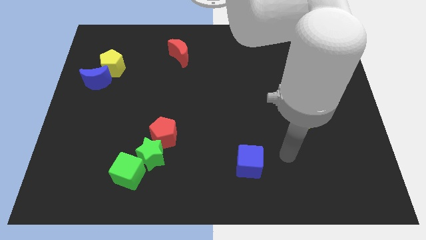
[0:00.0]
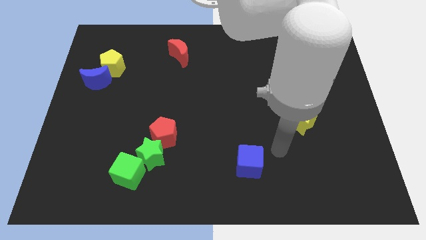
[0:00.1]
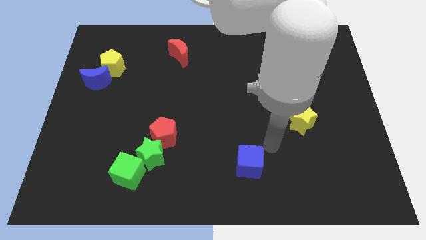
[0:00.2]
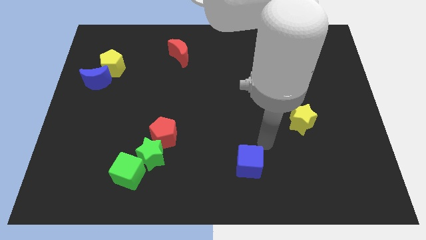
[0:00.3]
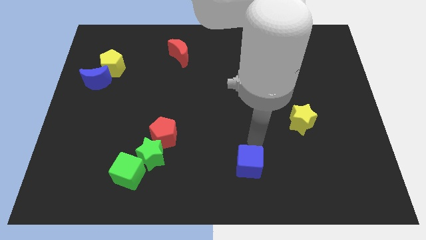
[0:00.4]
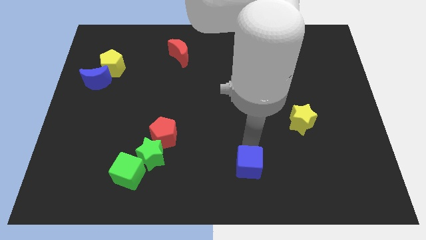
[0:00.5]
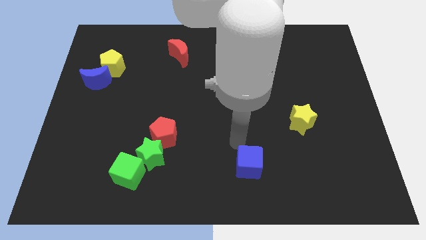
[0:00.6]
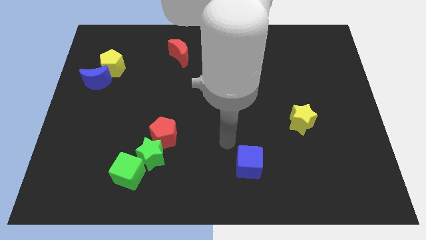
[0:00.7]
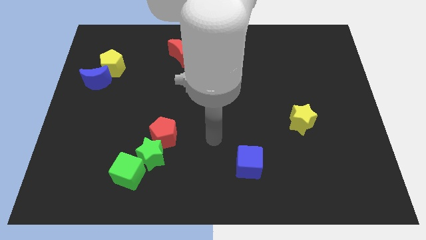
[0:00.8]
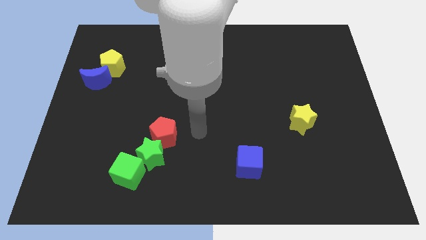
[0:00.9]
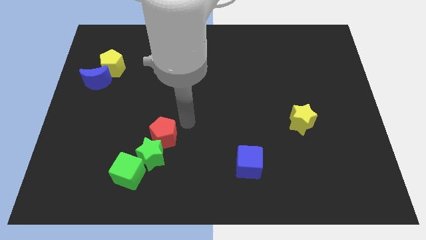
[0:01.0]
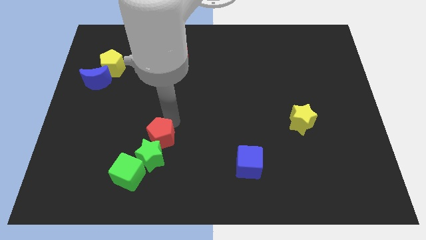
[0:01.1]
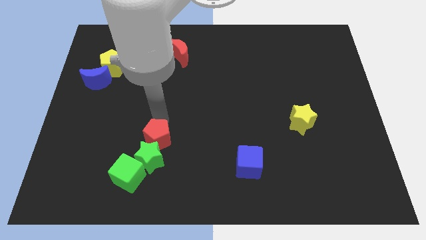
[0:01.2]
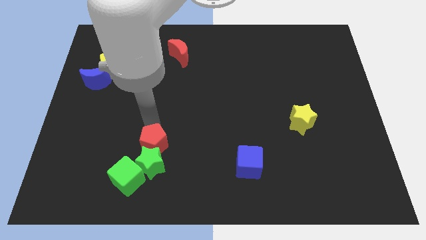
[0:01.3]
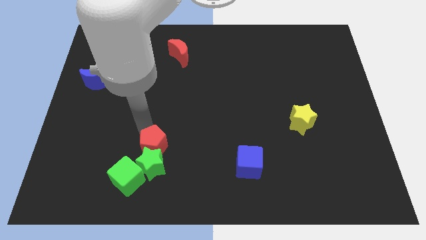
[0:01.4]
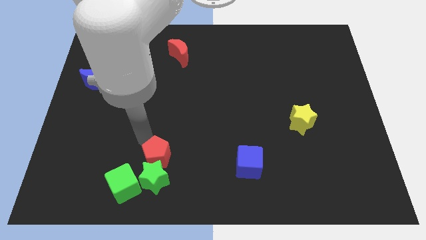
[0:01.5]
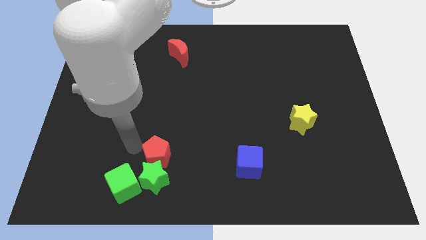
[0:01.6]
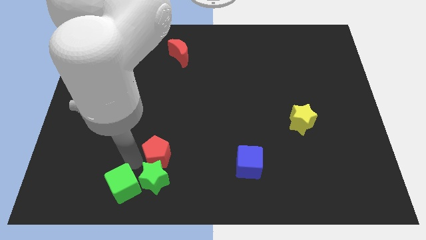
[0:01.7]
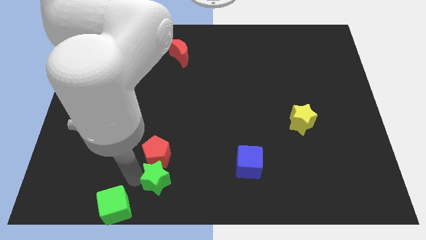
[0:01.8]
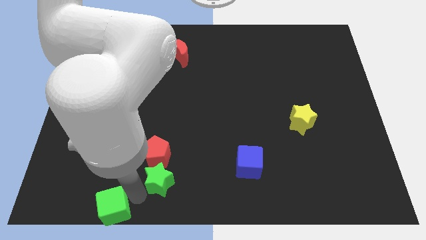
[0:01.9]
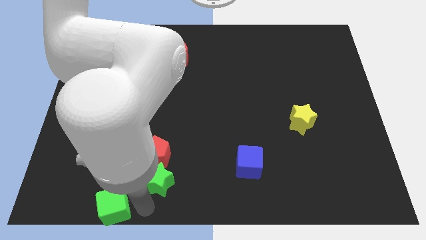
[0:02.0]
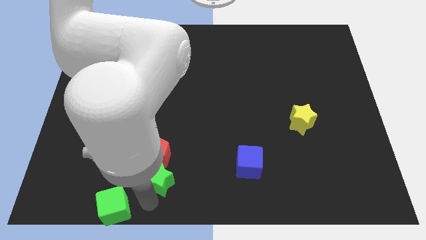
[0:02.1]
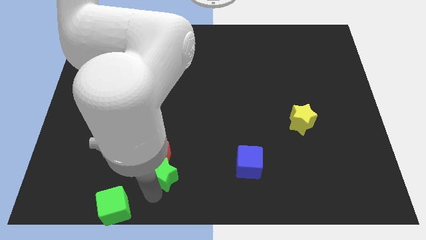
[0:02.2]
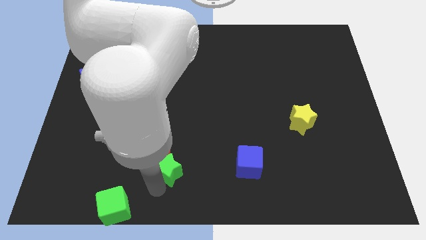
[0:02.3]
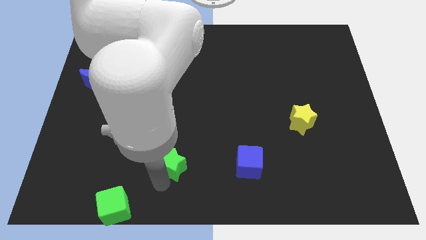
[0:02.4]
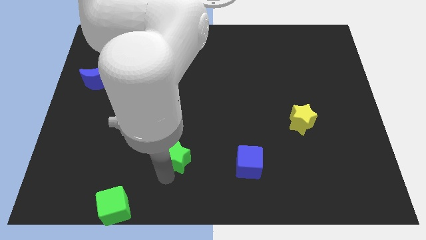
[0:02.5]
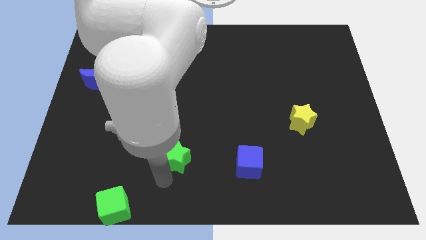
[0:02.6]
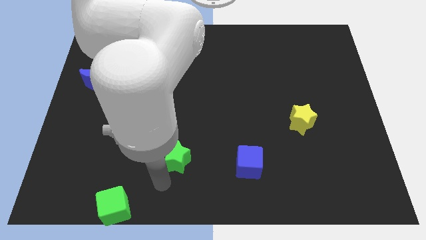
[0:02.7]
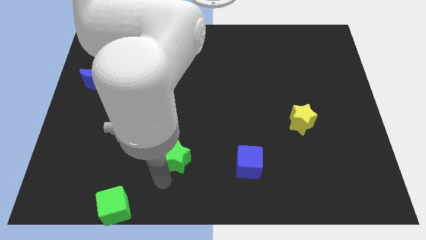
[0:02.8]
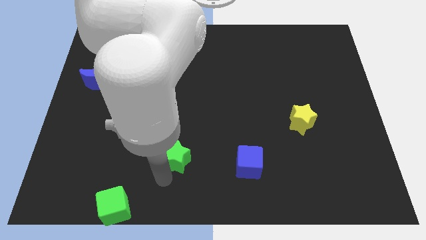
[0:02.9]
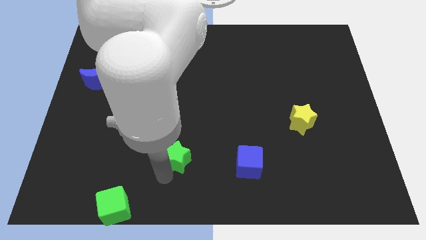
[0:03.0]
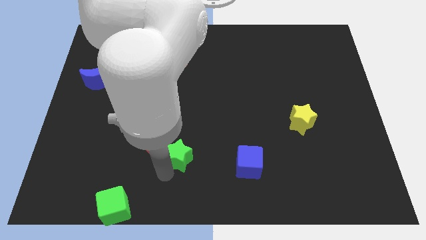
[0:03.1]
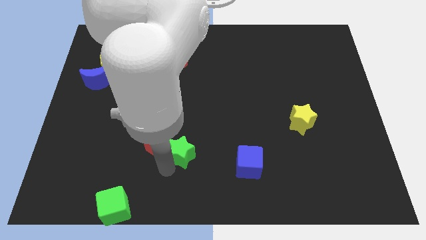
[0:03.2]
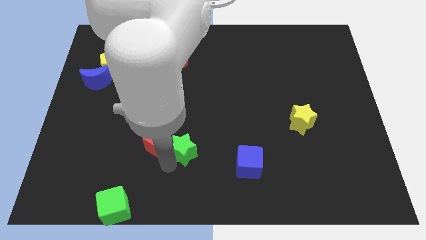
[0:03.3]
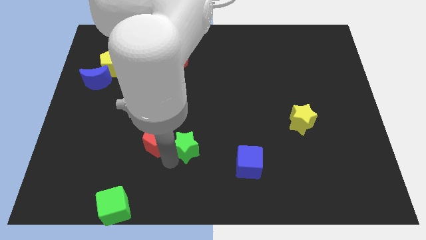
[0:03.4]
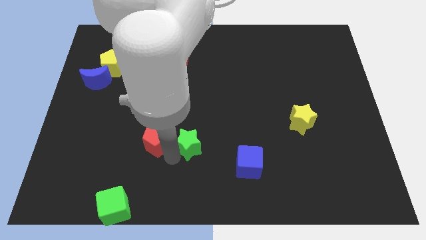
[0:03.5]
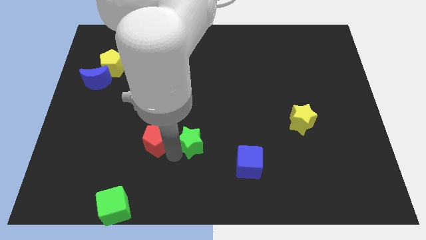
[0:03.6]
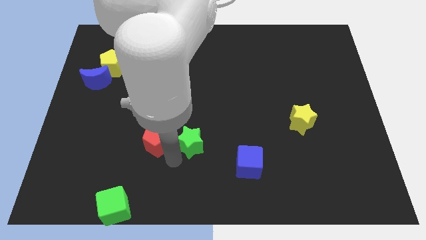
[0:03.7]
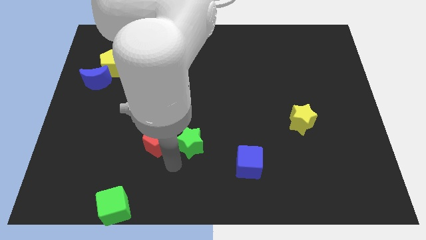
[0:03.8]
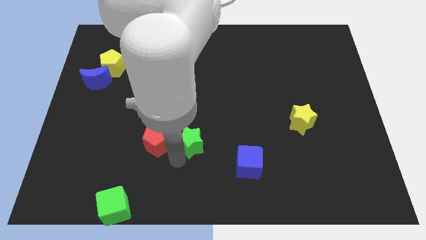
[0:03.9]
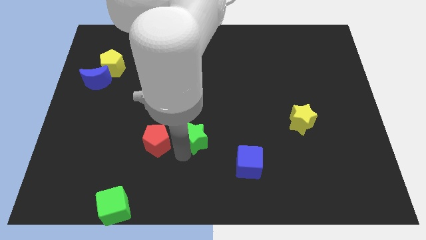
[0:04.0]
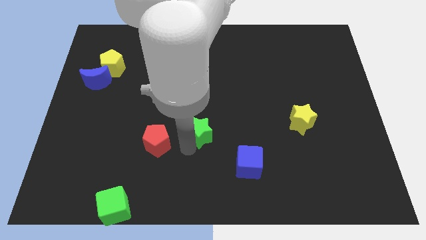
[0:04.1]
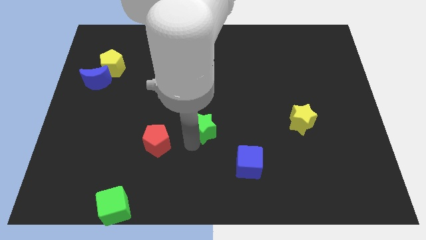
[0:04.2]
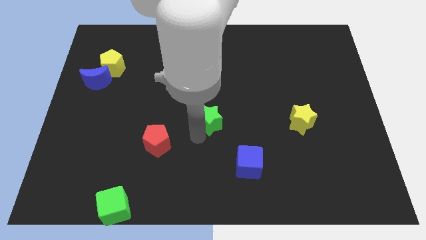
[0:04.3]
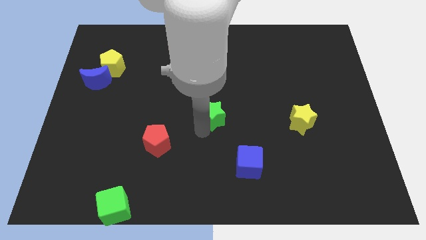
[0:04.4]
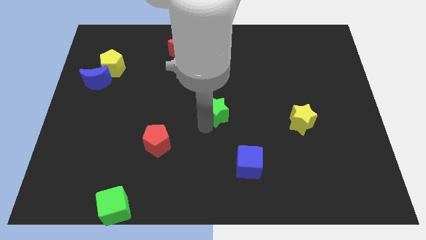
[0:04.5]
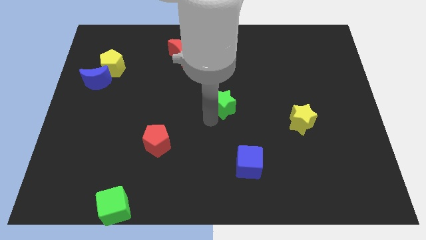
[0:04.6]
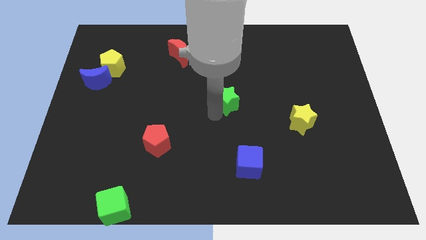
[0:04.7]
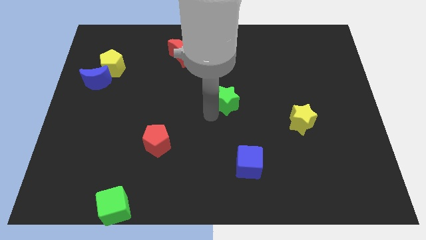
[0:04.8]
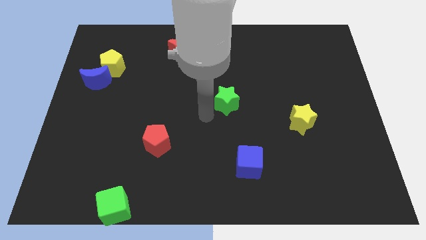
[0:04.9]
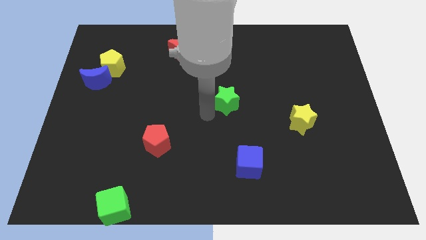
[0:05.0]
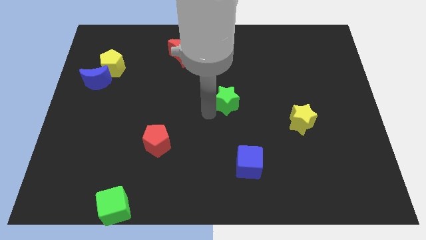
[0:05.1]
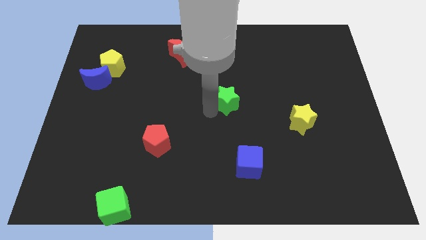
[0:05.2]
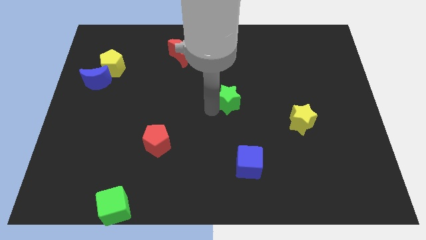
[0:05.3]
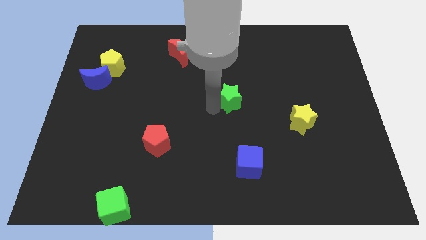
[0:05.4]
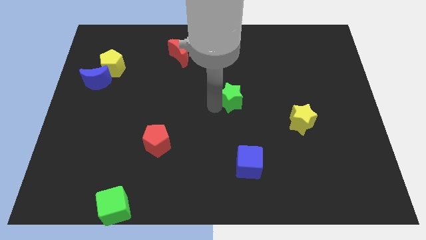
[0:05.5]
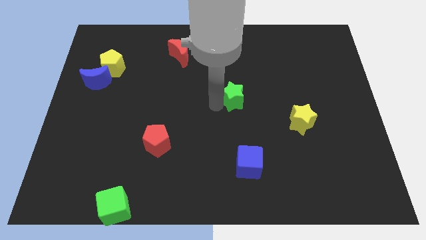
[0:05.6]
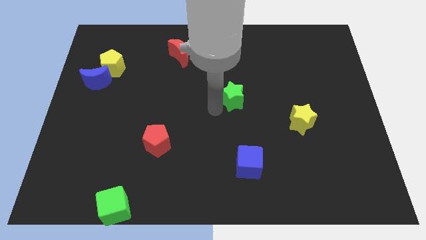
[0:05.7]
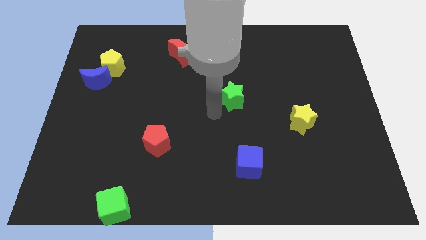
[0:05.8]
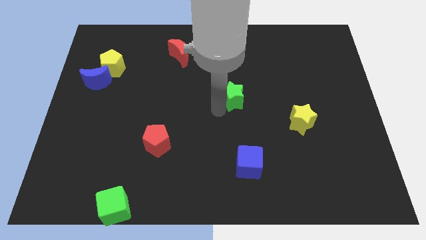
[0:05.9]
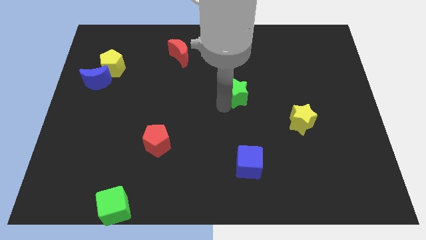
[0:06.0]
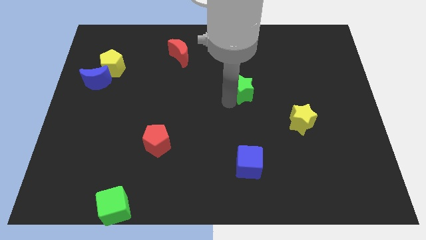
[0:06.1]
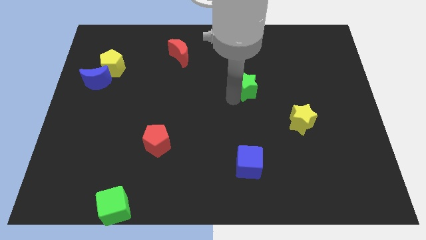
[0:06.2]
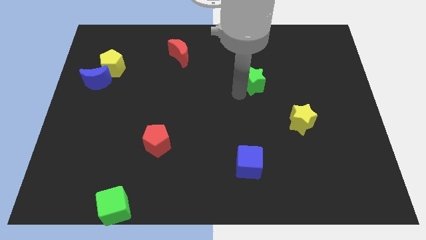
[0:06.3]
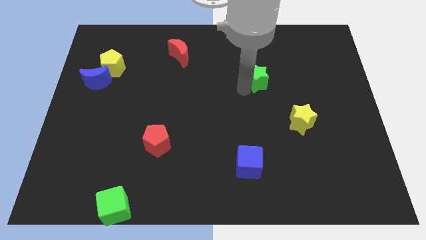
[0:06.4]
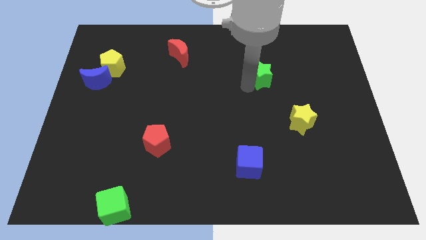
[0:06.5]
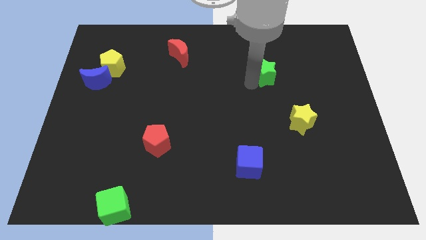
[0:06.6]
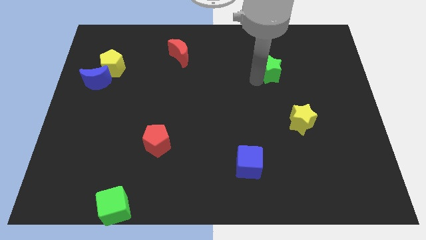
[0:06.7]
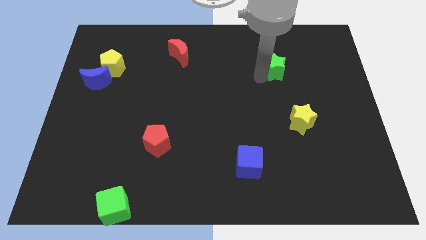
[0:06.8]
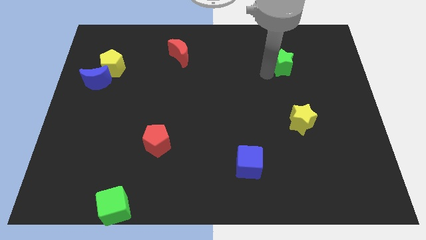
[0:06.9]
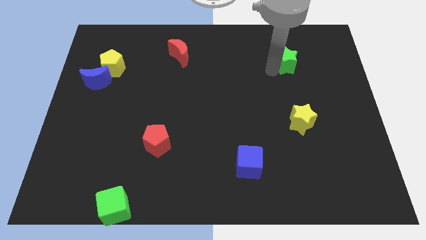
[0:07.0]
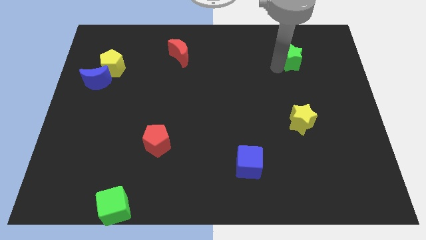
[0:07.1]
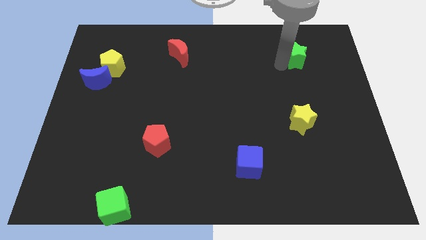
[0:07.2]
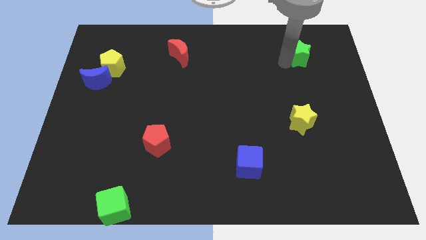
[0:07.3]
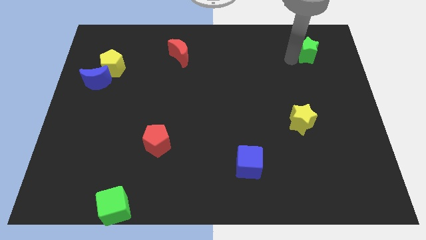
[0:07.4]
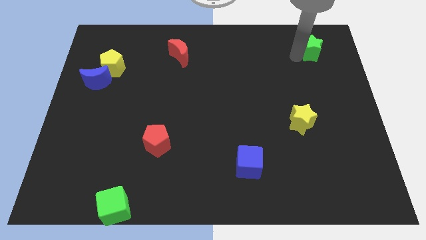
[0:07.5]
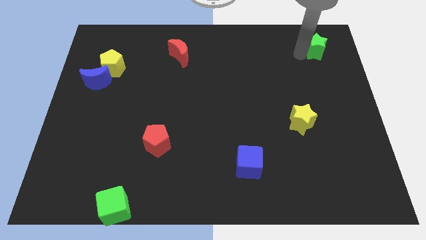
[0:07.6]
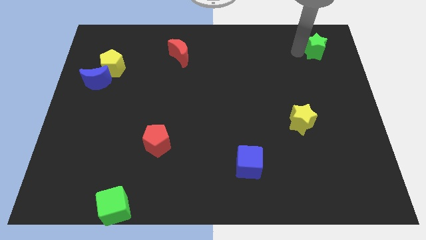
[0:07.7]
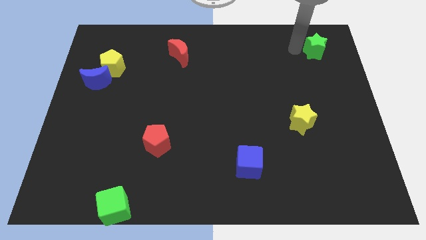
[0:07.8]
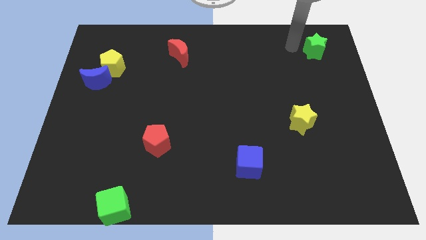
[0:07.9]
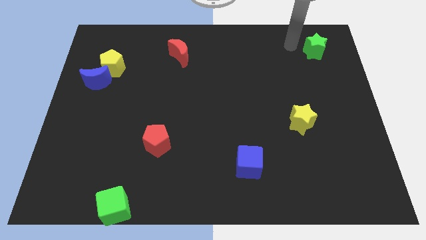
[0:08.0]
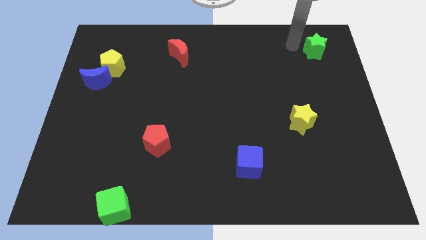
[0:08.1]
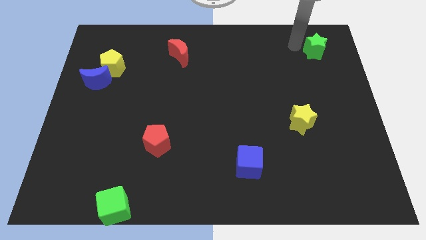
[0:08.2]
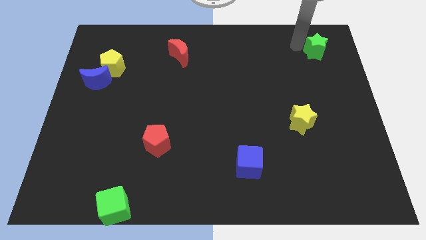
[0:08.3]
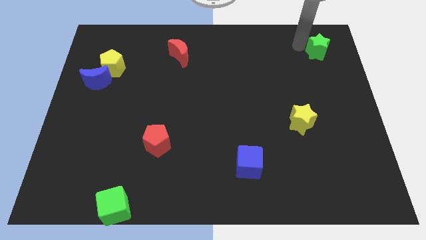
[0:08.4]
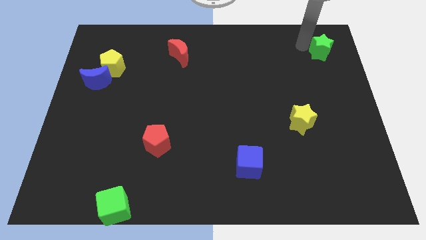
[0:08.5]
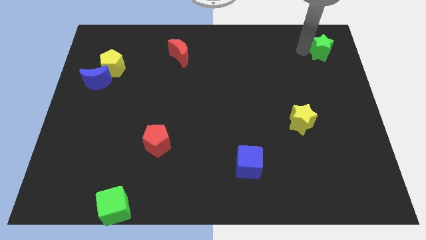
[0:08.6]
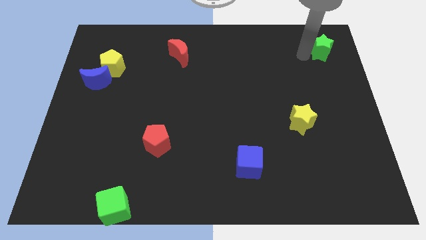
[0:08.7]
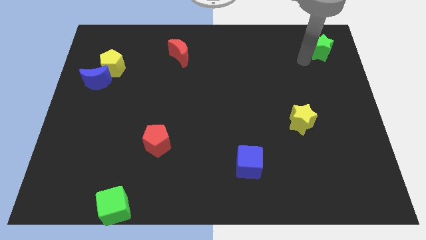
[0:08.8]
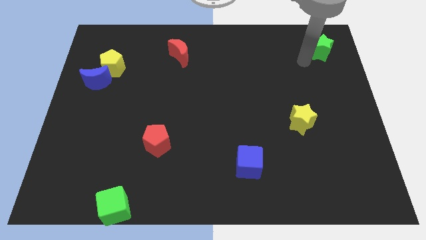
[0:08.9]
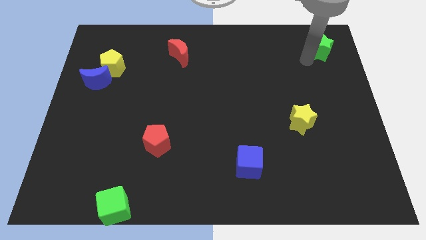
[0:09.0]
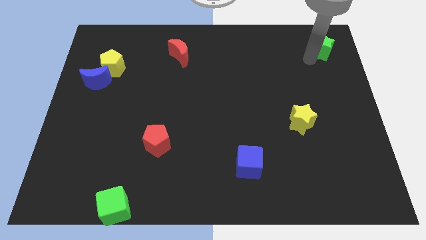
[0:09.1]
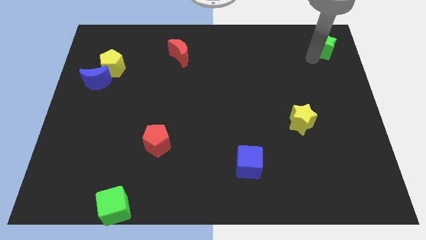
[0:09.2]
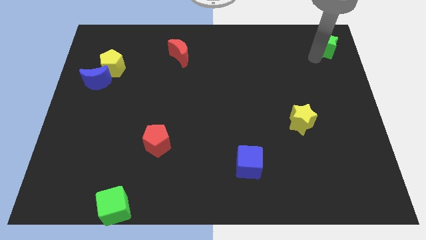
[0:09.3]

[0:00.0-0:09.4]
slide the green star to the top right of the board
